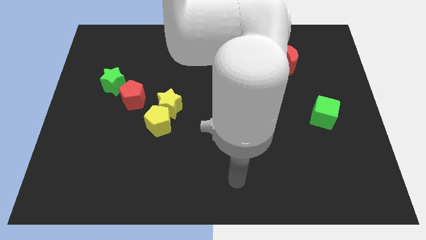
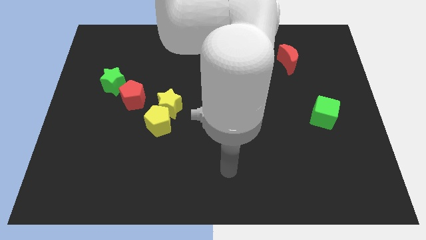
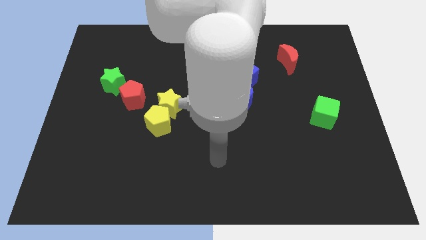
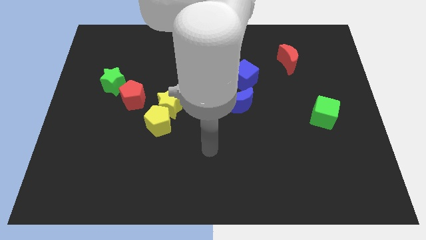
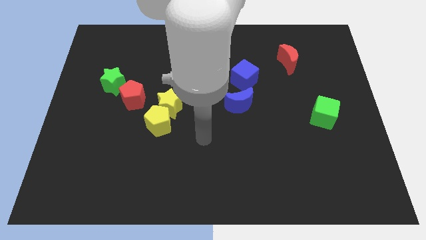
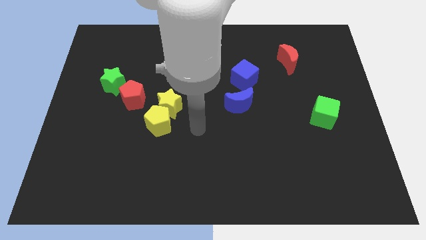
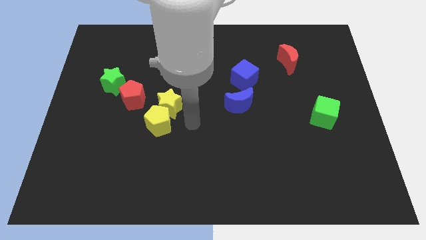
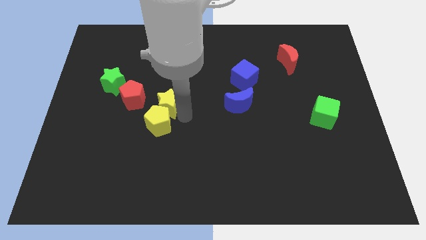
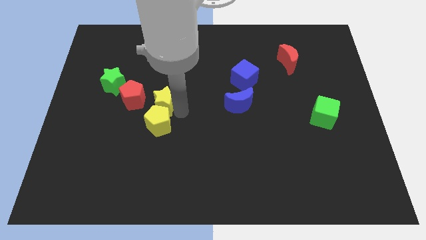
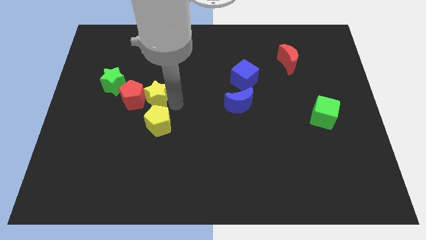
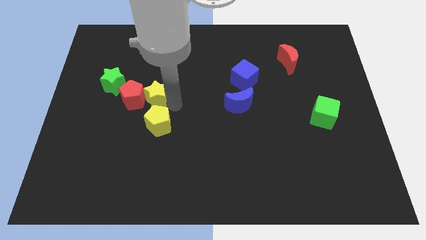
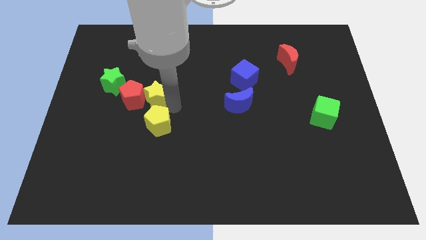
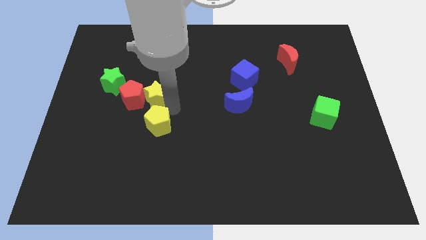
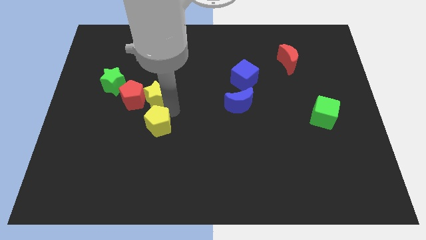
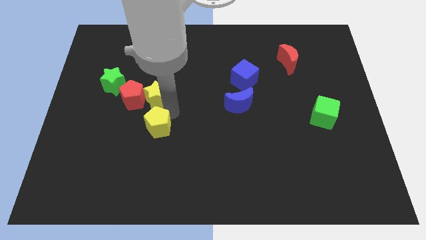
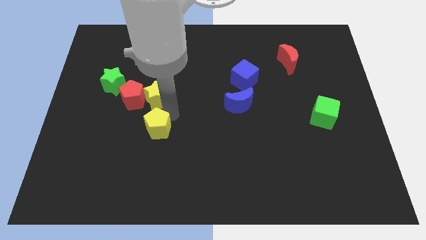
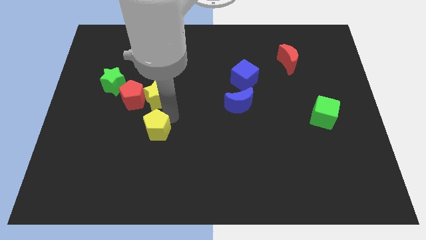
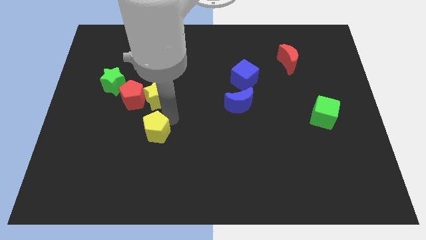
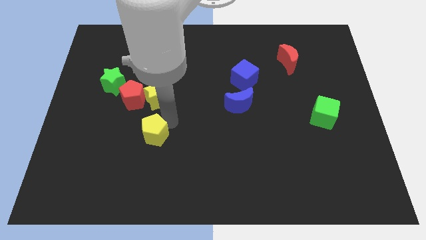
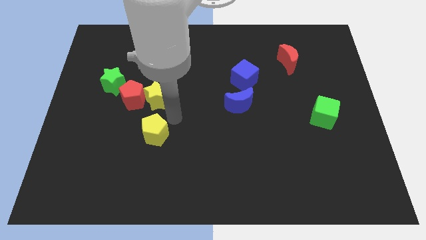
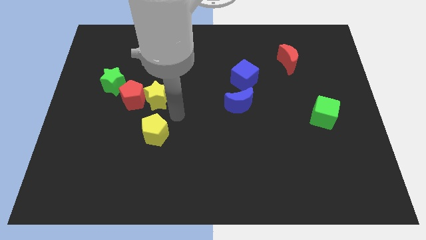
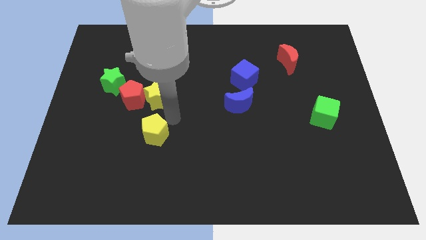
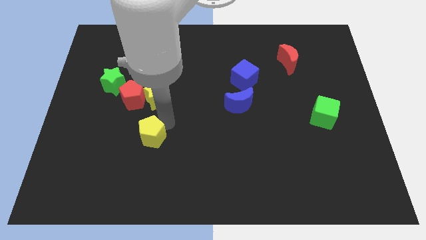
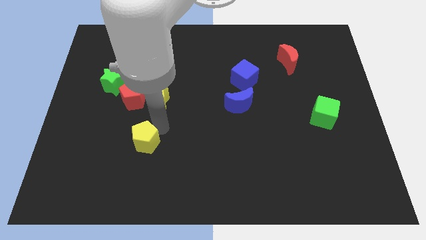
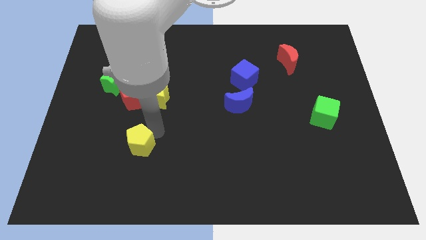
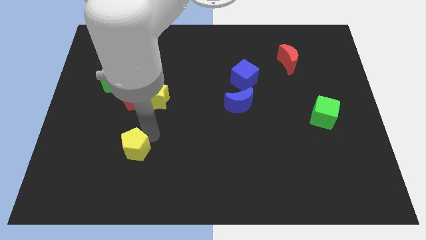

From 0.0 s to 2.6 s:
slide the yellow pentagon downwards and to the left diagonally slightly

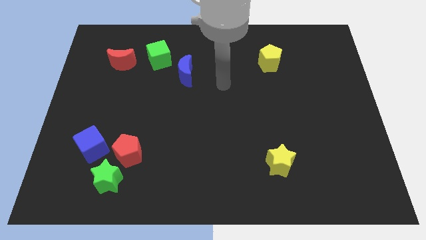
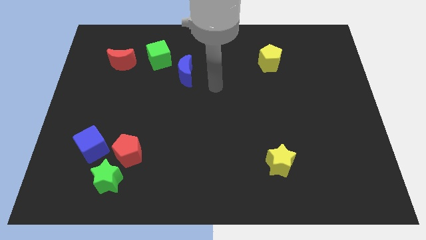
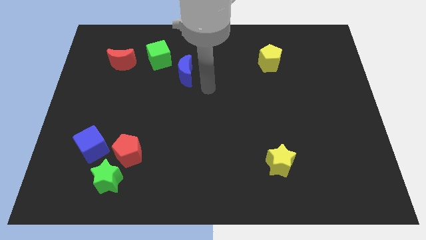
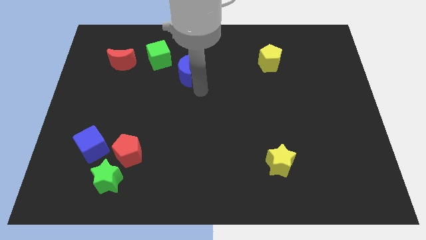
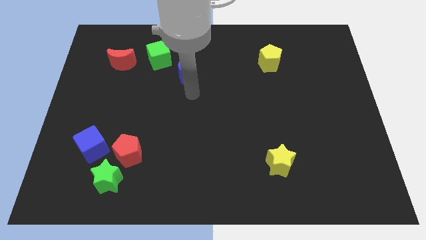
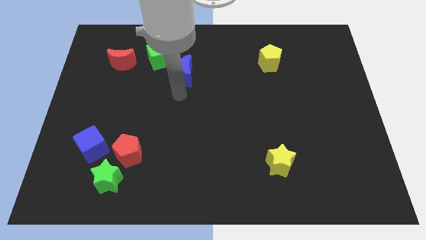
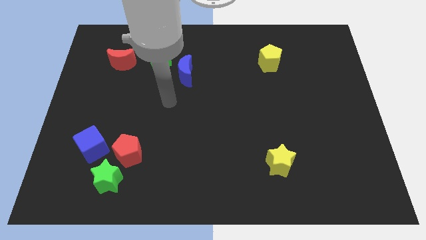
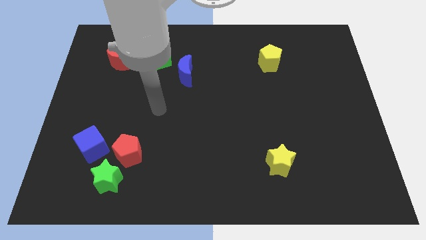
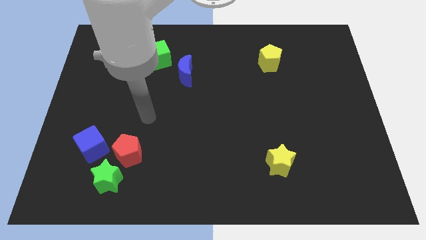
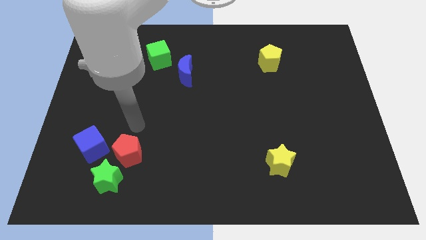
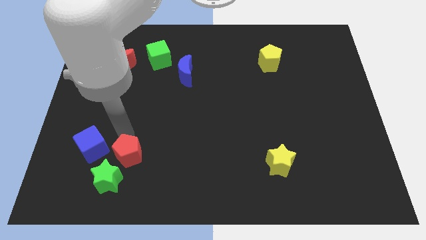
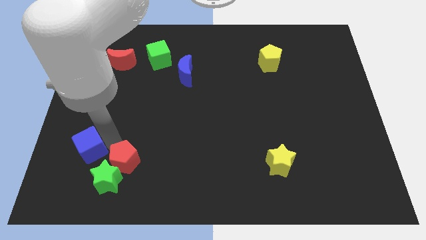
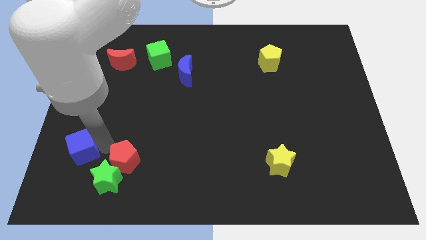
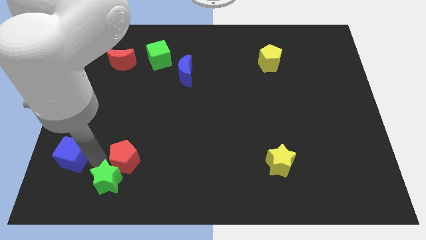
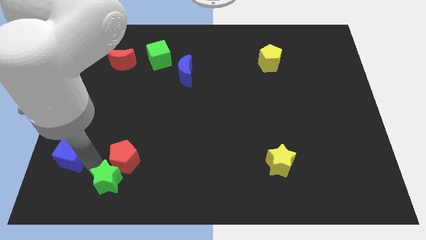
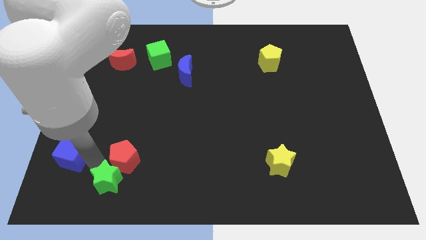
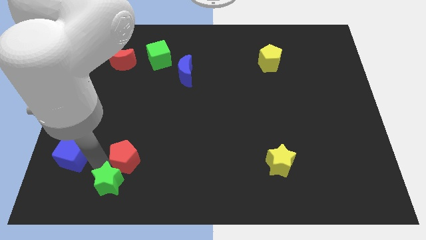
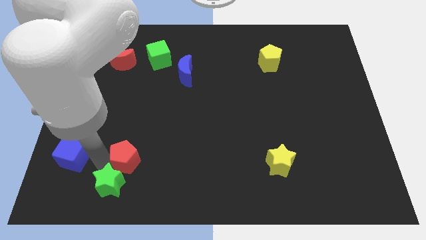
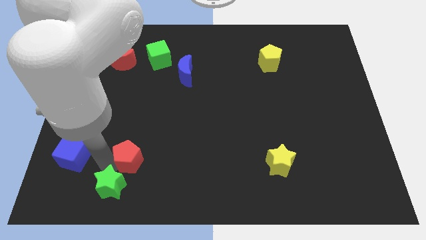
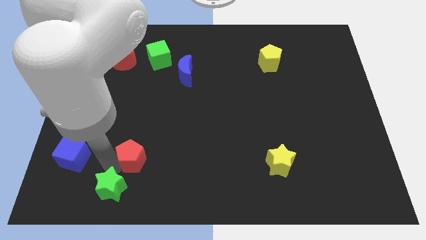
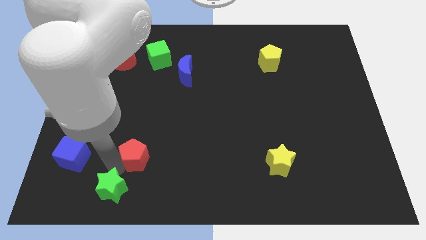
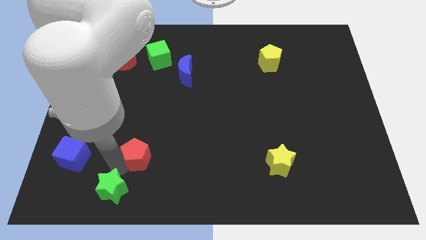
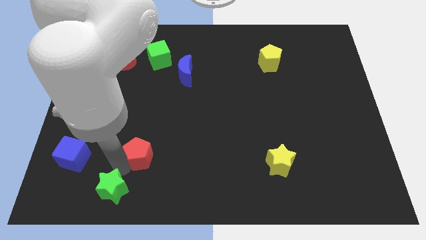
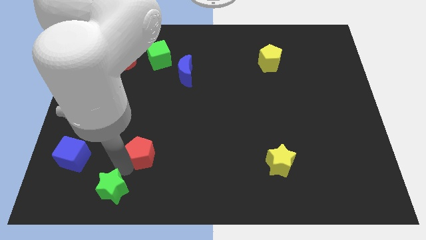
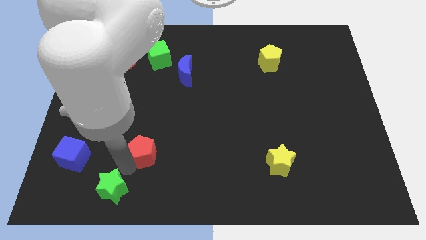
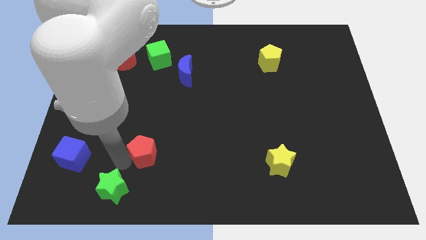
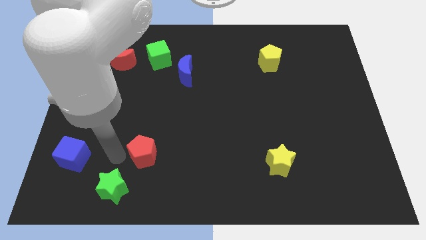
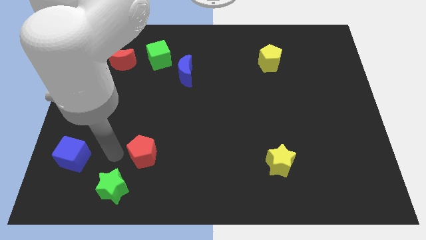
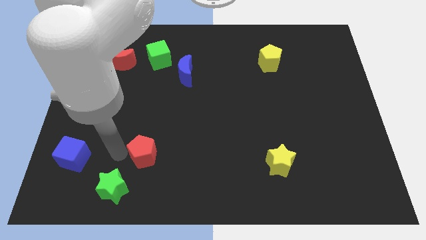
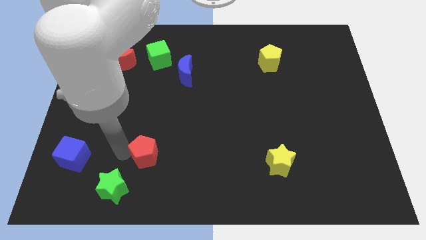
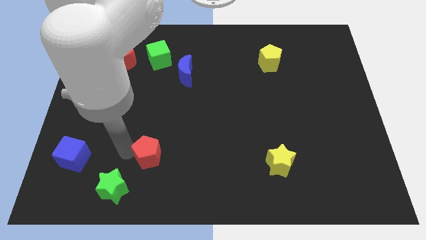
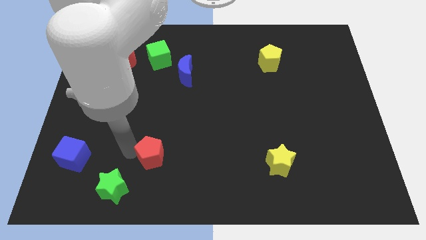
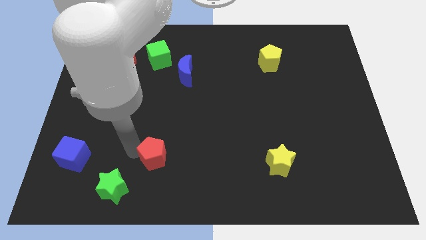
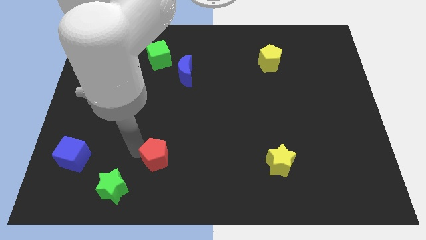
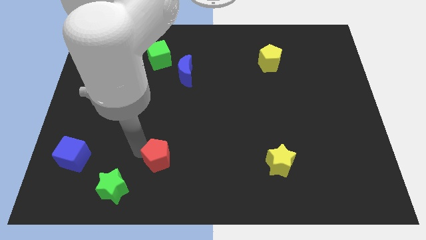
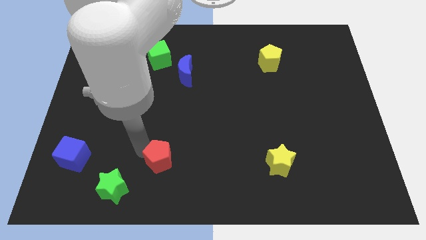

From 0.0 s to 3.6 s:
move the red pentagon right somewhat

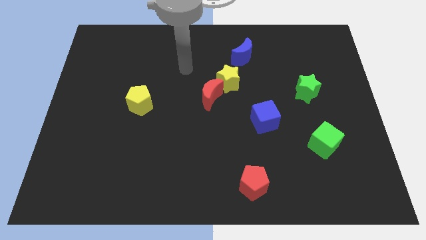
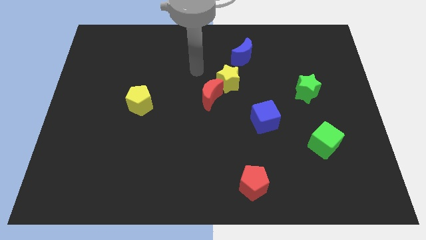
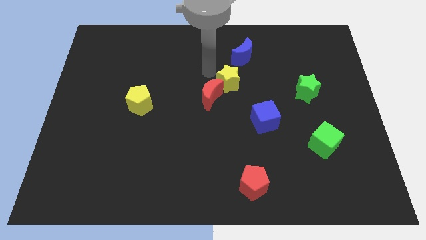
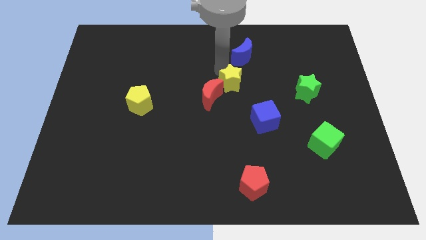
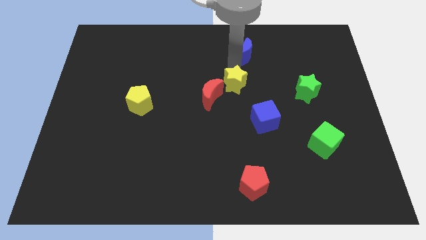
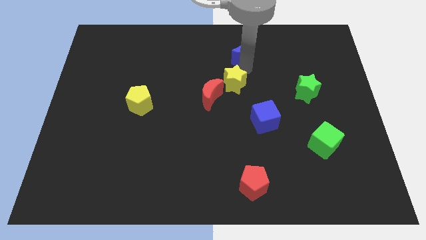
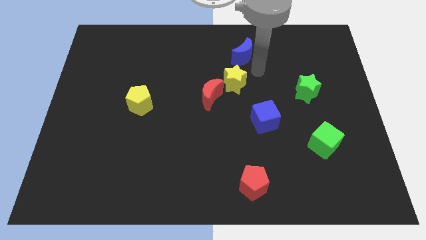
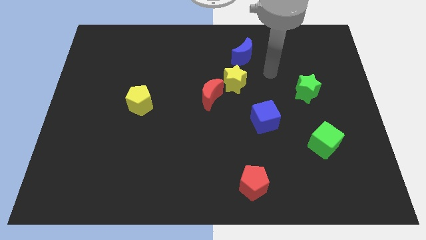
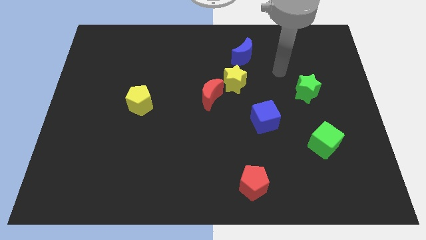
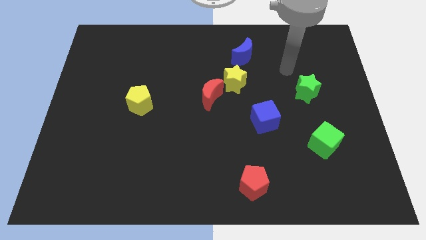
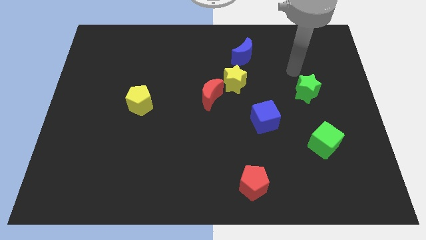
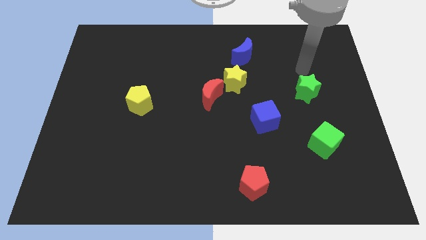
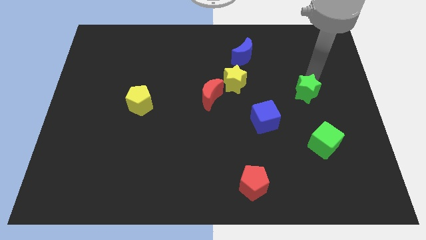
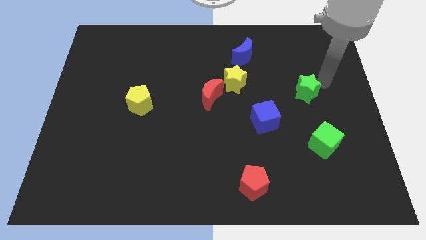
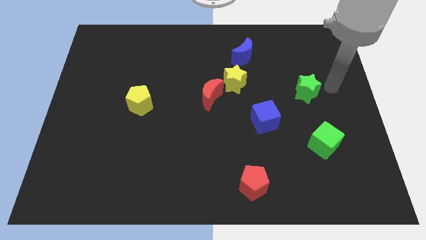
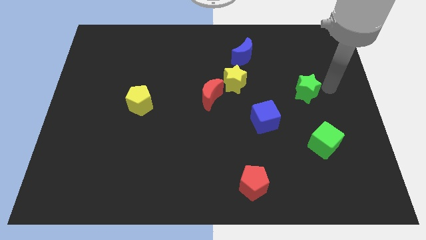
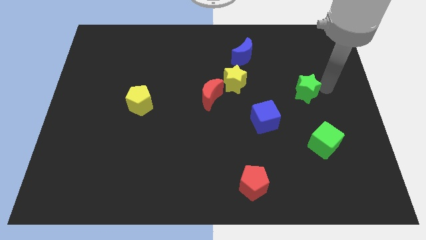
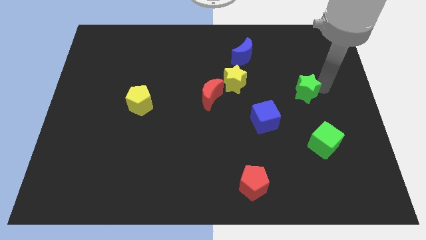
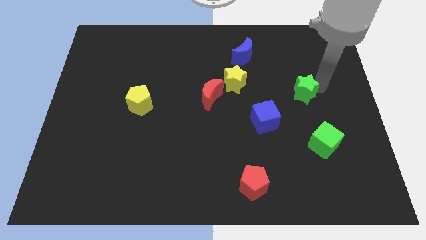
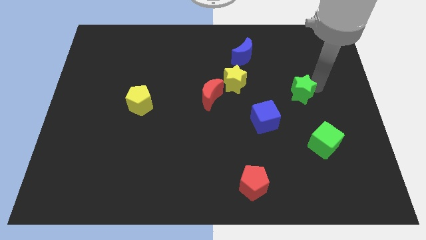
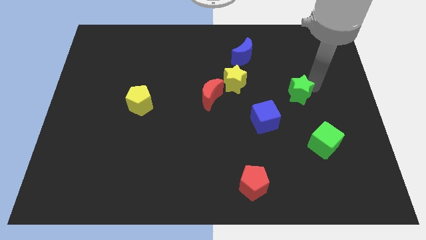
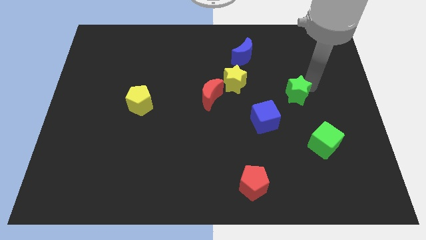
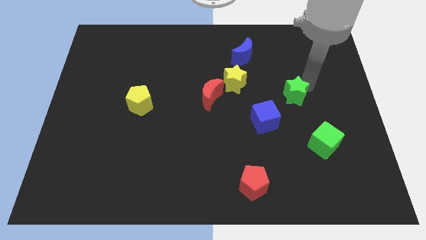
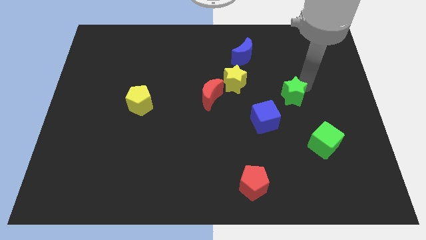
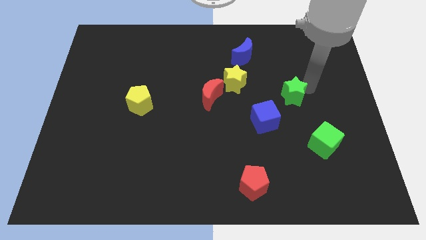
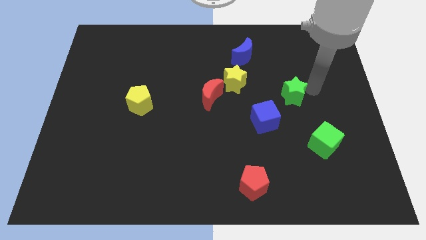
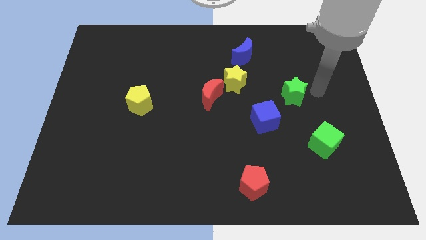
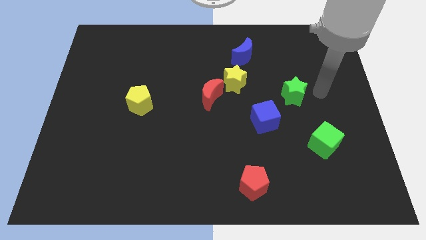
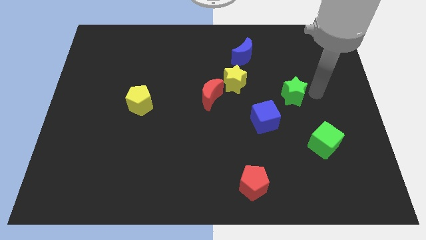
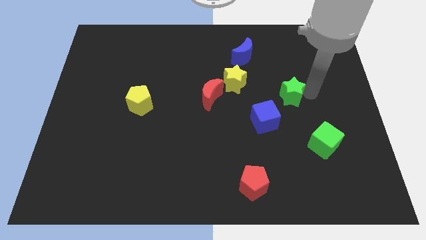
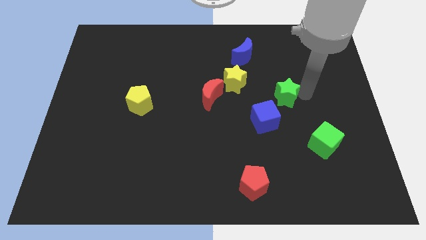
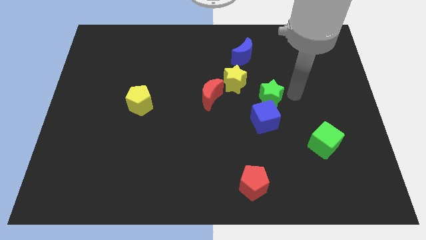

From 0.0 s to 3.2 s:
push the green star slightly diagonally downwards and left
